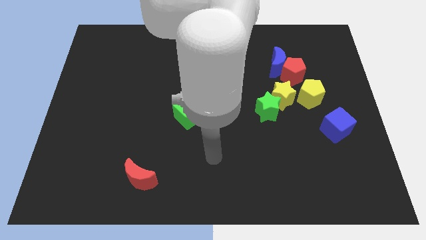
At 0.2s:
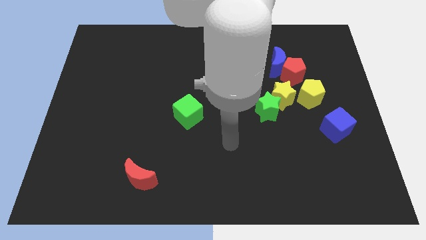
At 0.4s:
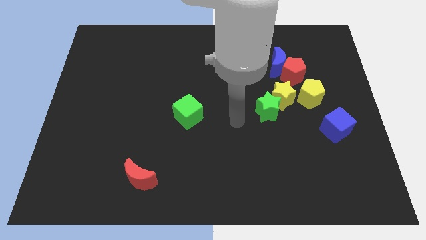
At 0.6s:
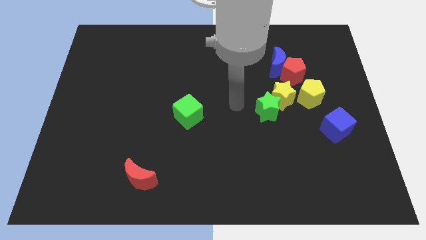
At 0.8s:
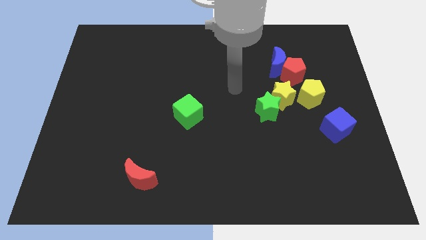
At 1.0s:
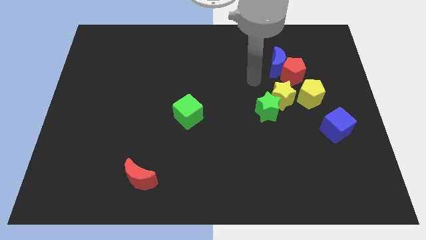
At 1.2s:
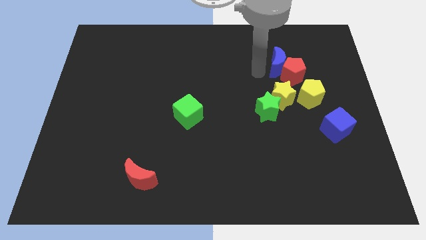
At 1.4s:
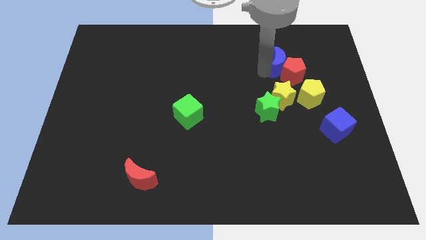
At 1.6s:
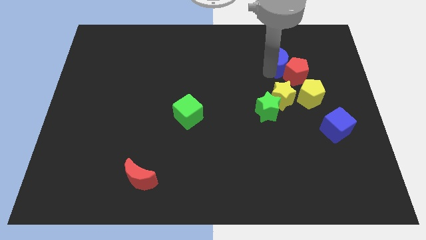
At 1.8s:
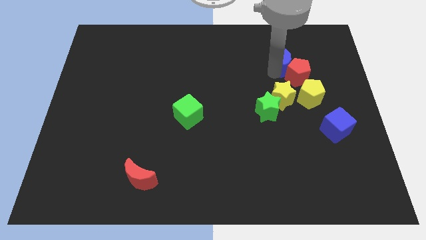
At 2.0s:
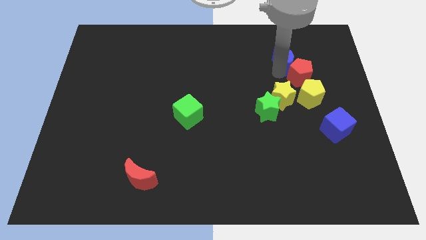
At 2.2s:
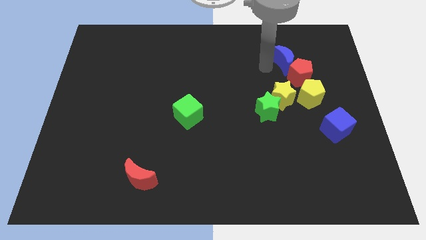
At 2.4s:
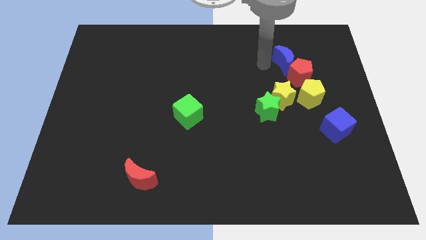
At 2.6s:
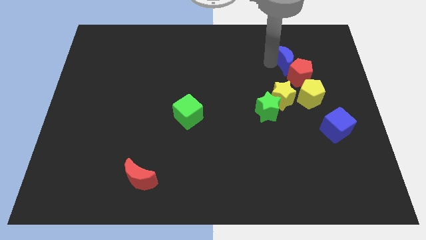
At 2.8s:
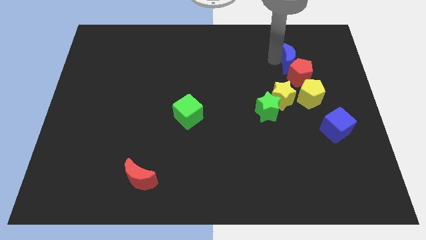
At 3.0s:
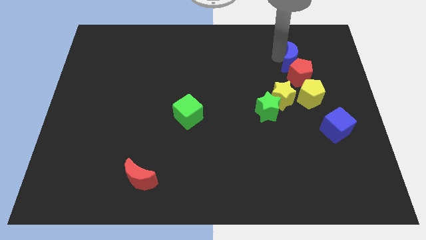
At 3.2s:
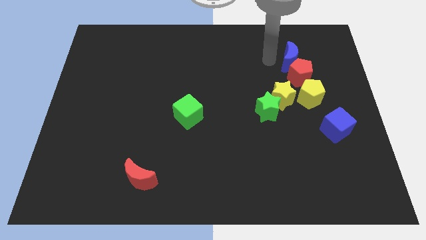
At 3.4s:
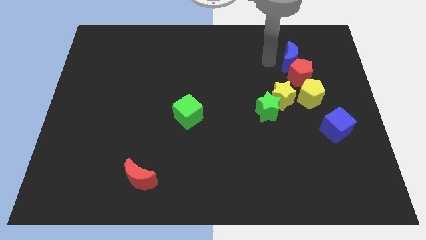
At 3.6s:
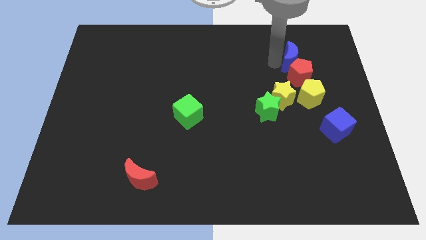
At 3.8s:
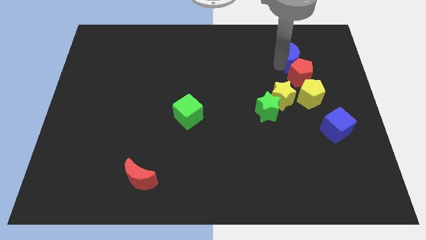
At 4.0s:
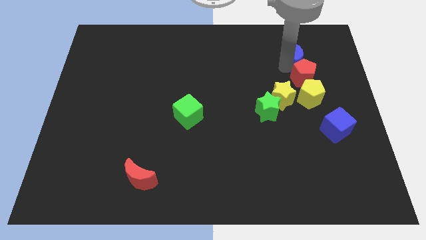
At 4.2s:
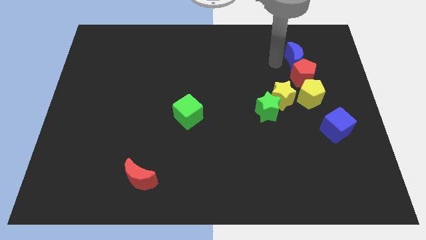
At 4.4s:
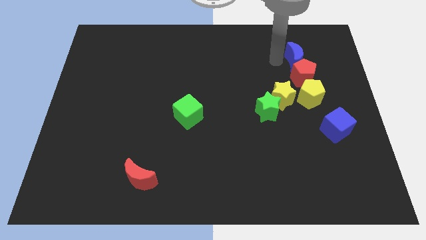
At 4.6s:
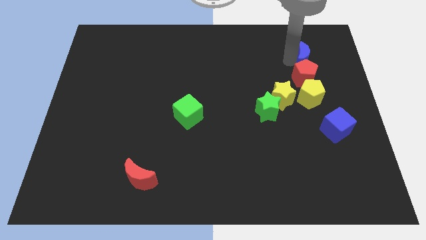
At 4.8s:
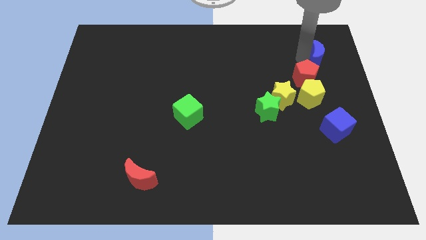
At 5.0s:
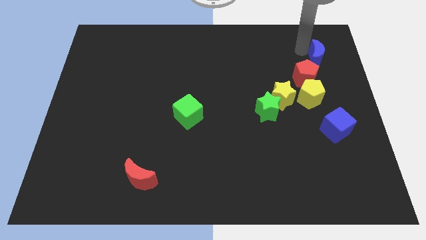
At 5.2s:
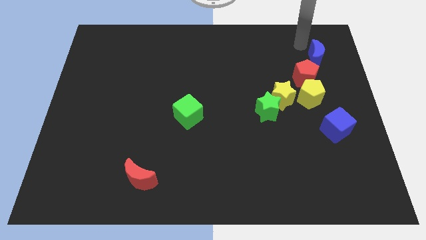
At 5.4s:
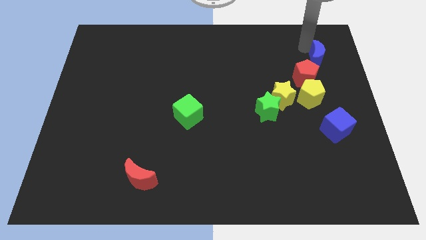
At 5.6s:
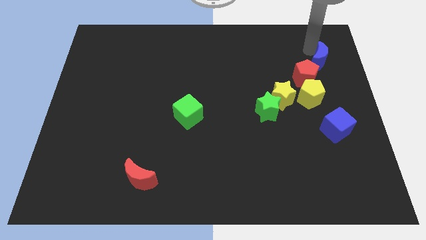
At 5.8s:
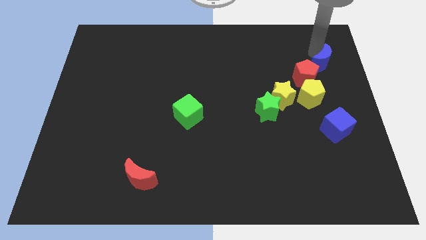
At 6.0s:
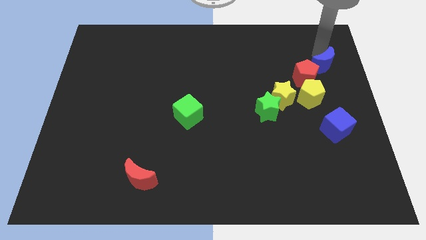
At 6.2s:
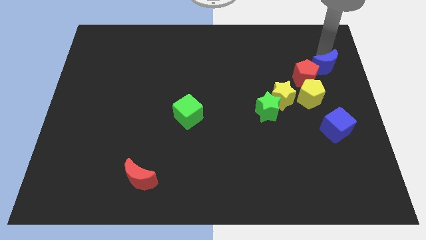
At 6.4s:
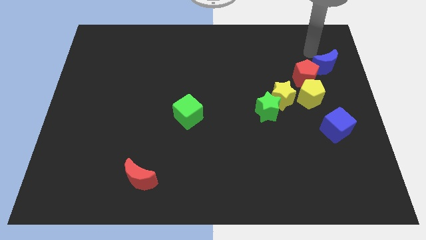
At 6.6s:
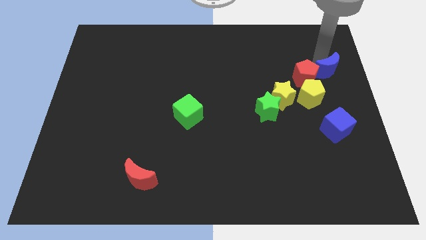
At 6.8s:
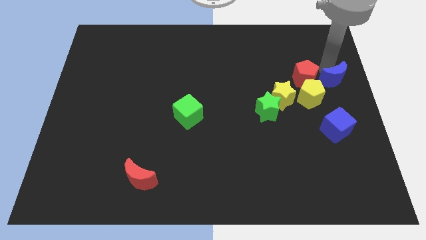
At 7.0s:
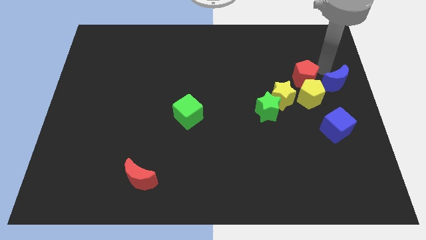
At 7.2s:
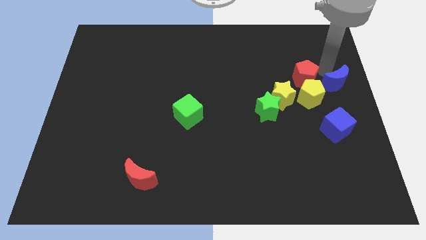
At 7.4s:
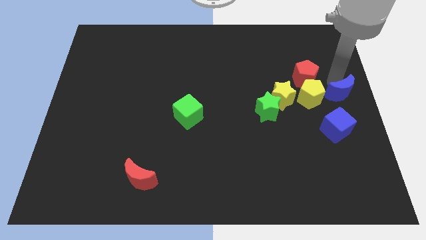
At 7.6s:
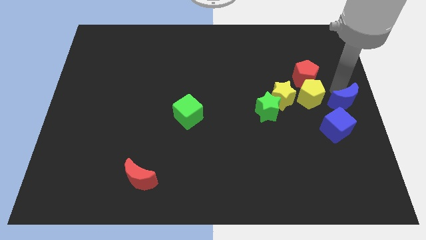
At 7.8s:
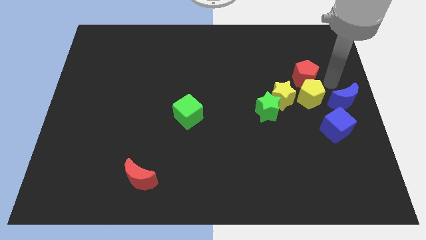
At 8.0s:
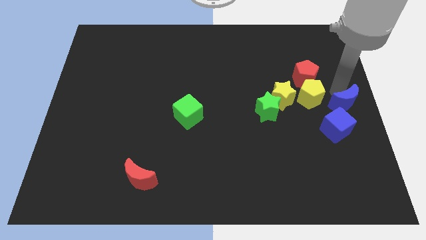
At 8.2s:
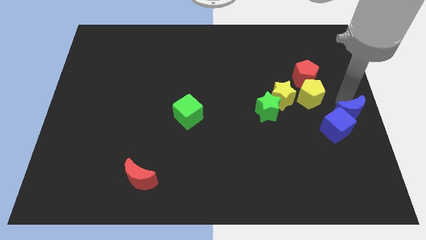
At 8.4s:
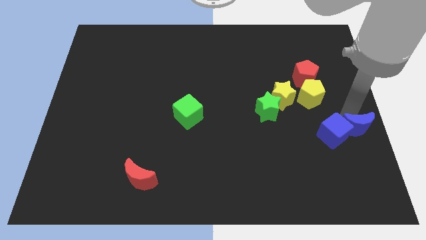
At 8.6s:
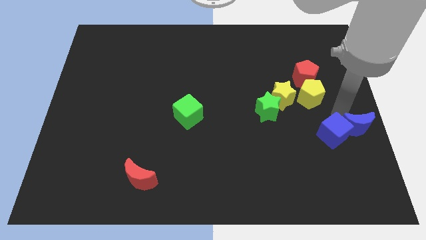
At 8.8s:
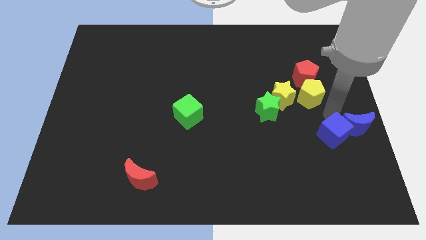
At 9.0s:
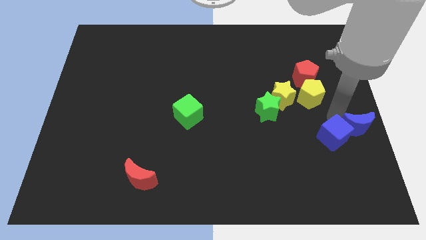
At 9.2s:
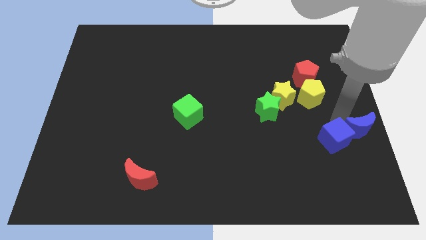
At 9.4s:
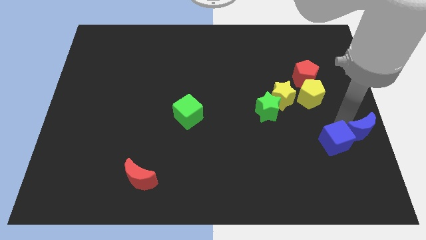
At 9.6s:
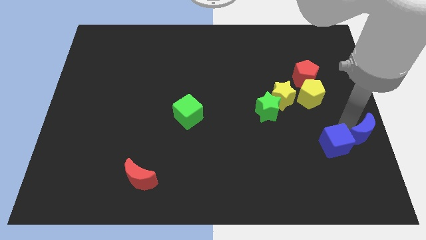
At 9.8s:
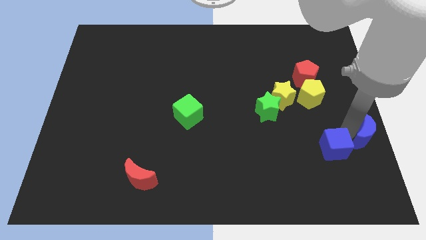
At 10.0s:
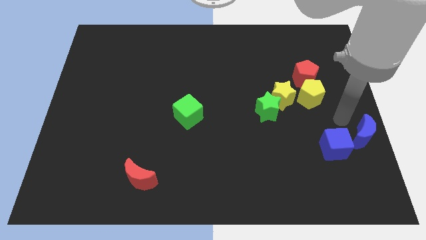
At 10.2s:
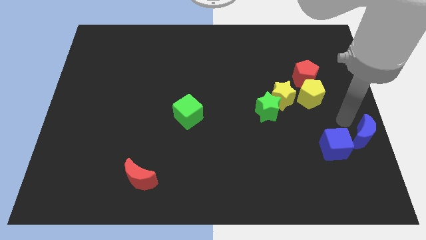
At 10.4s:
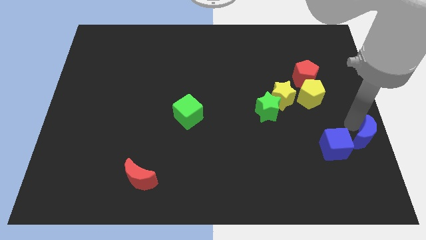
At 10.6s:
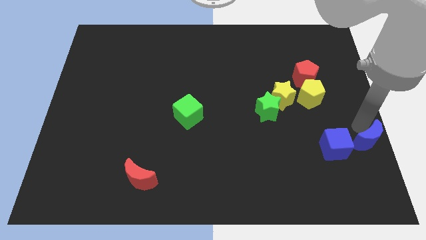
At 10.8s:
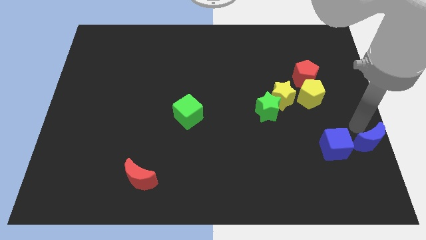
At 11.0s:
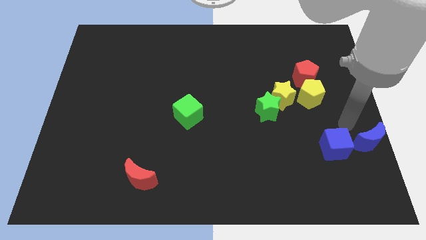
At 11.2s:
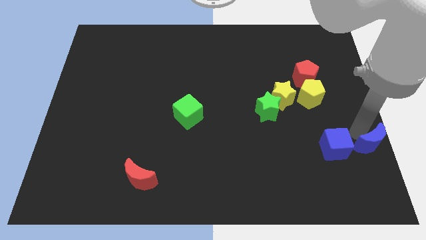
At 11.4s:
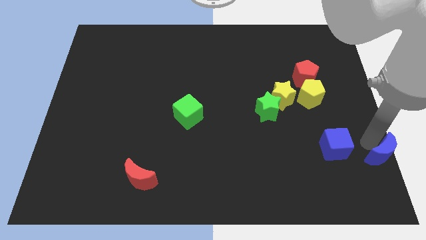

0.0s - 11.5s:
put the blue moon to the lower right corner

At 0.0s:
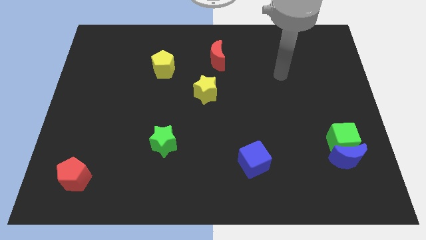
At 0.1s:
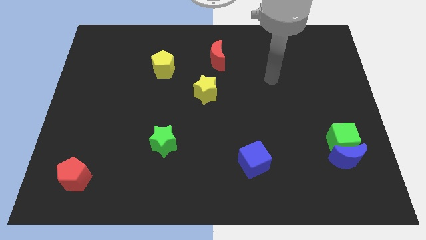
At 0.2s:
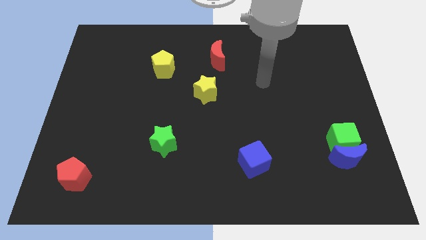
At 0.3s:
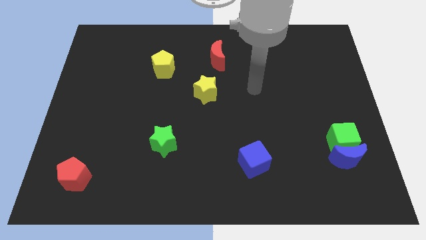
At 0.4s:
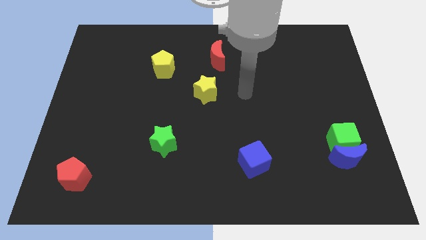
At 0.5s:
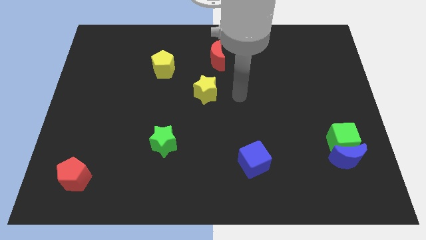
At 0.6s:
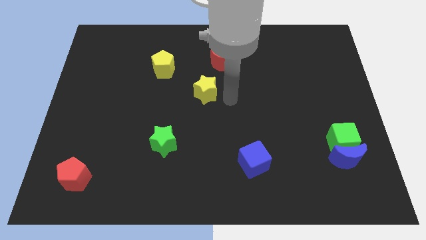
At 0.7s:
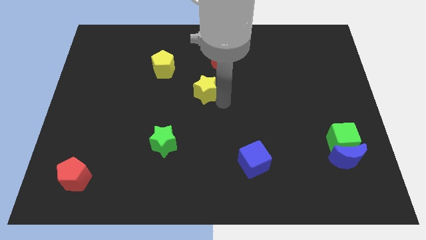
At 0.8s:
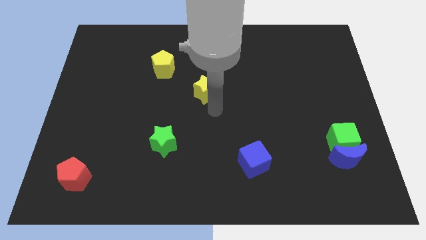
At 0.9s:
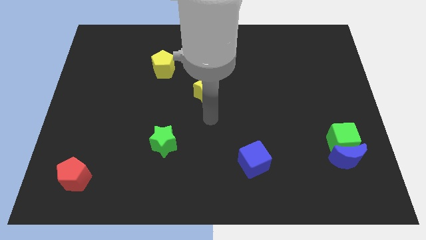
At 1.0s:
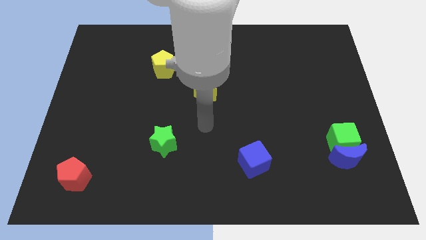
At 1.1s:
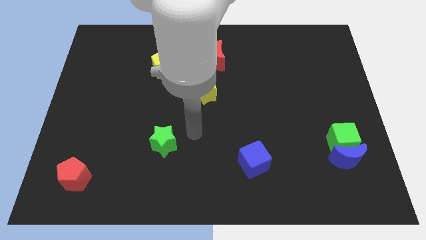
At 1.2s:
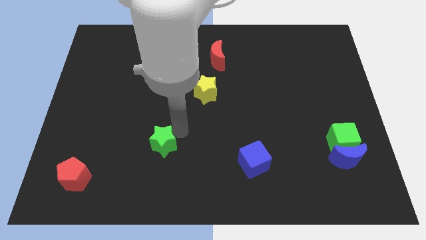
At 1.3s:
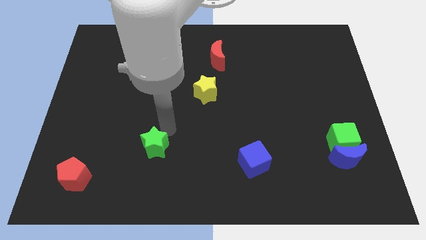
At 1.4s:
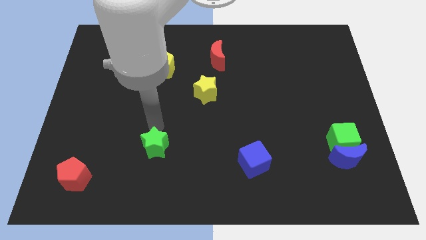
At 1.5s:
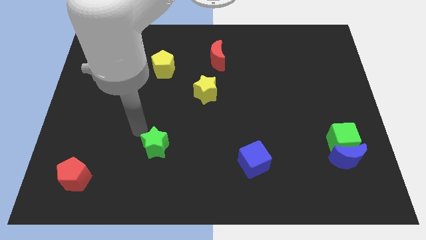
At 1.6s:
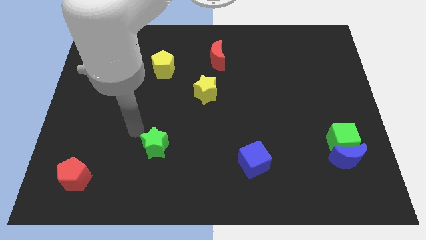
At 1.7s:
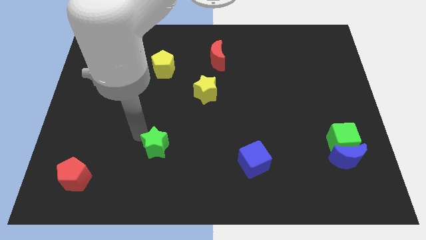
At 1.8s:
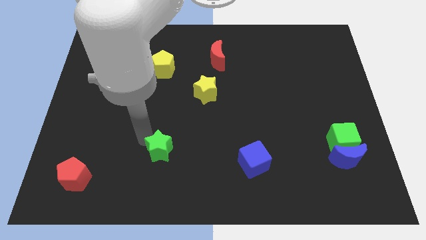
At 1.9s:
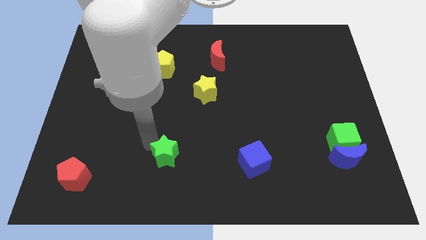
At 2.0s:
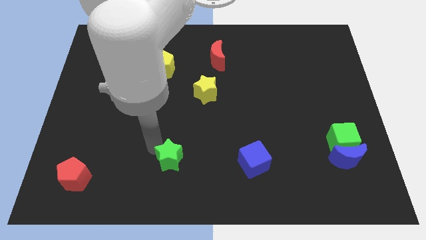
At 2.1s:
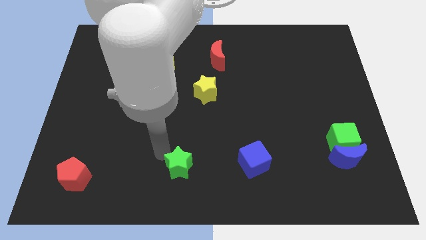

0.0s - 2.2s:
put the green star to the bottom side
